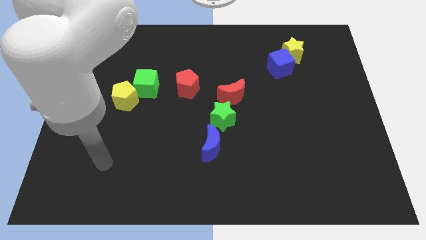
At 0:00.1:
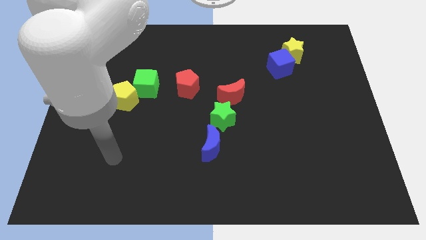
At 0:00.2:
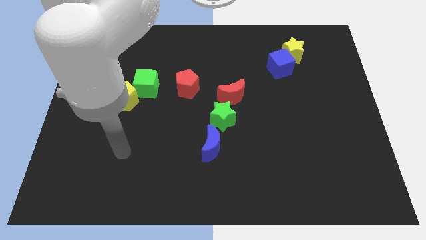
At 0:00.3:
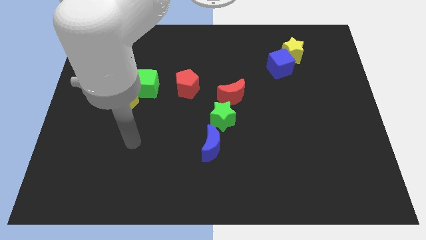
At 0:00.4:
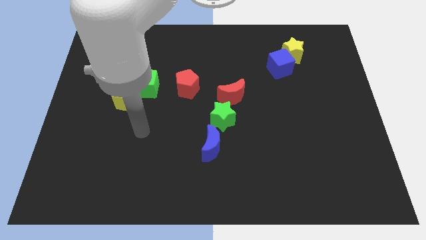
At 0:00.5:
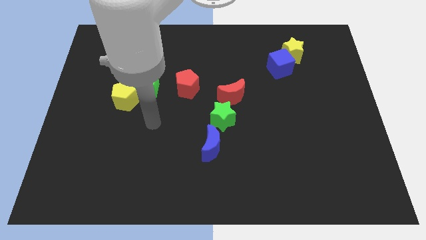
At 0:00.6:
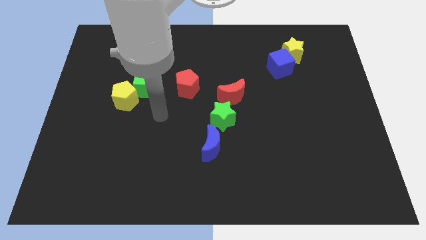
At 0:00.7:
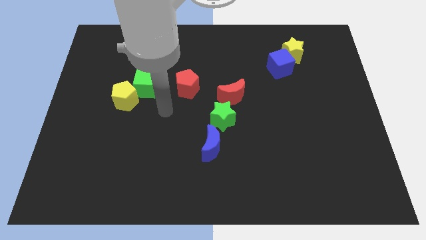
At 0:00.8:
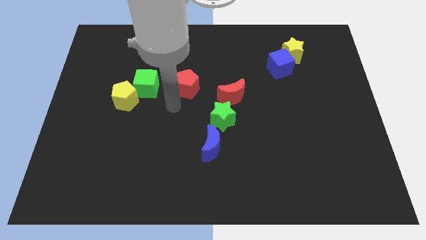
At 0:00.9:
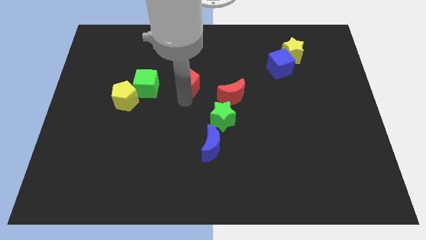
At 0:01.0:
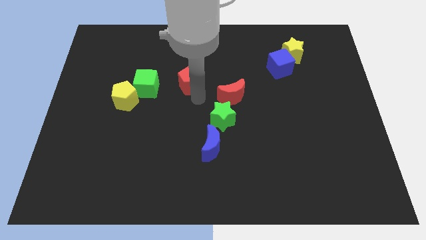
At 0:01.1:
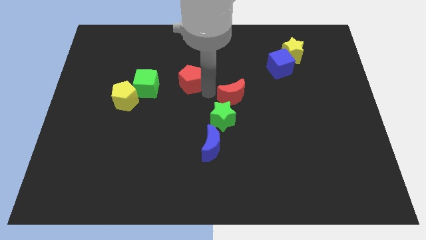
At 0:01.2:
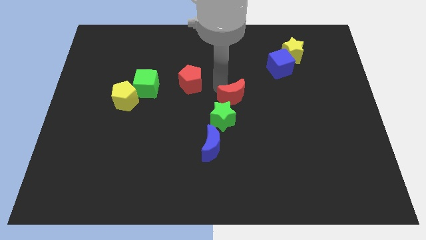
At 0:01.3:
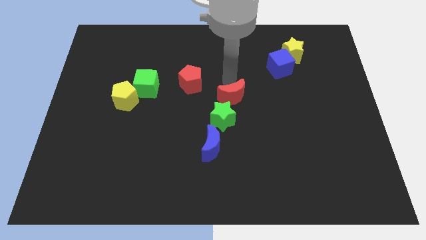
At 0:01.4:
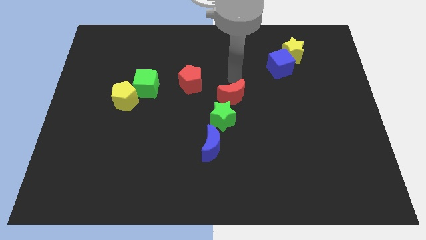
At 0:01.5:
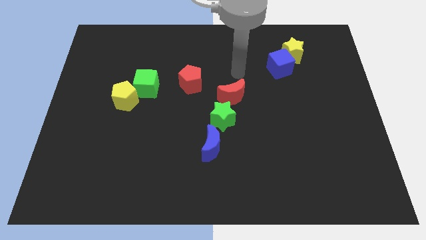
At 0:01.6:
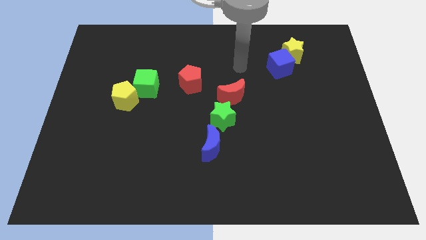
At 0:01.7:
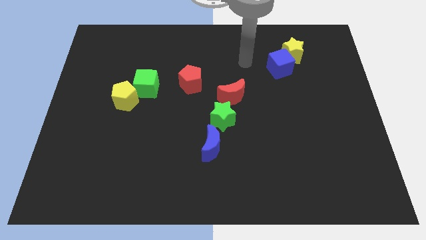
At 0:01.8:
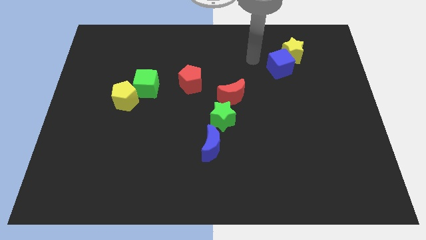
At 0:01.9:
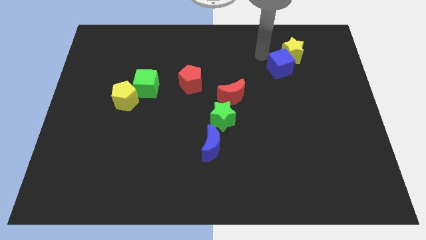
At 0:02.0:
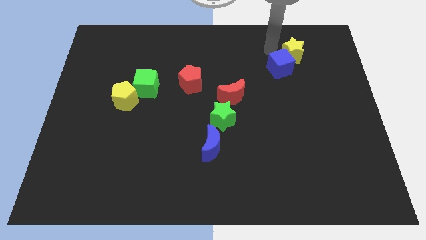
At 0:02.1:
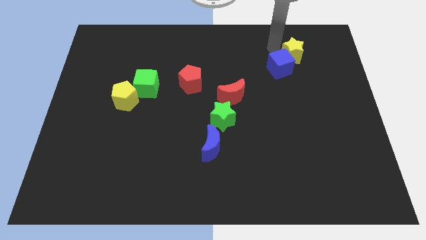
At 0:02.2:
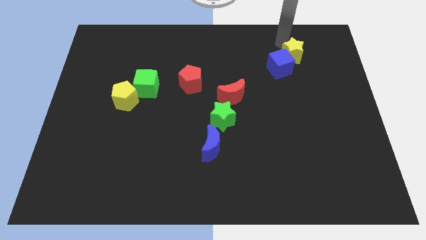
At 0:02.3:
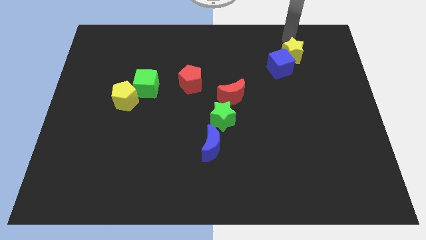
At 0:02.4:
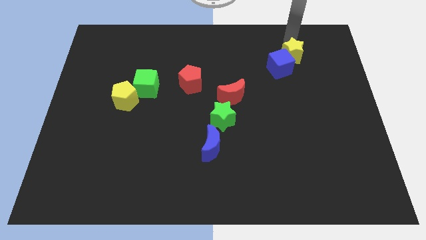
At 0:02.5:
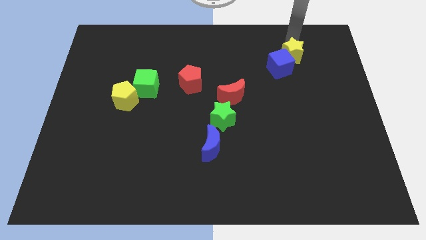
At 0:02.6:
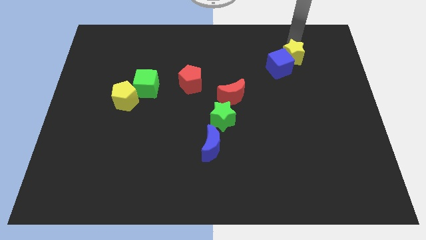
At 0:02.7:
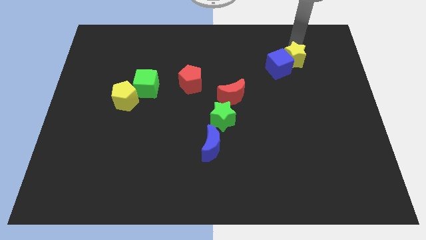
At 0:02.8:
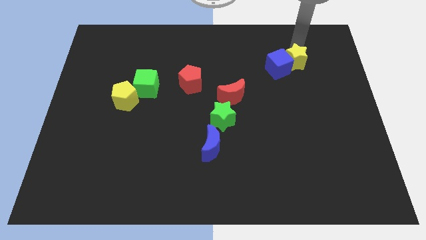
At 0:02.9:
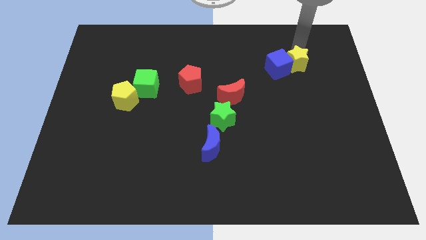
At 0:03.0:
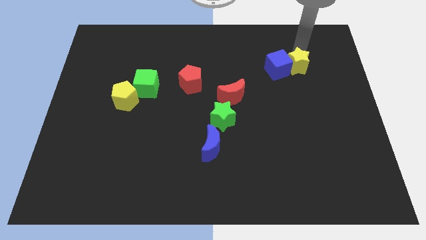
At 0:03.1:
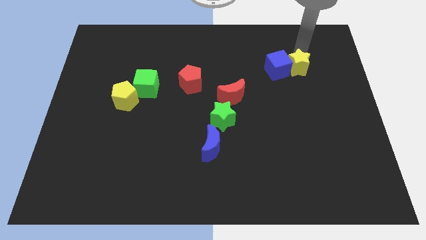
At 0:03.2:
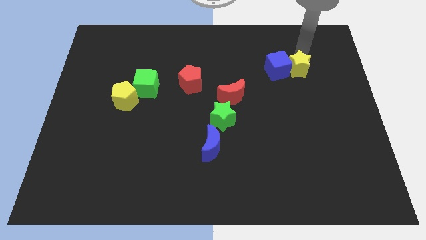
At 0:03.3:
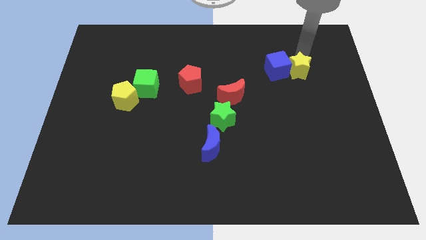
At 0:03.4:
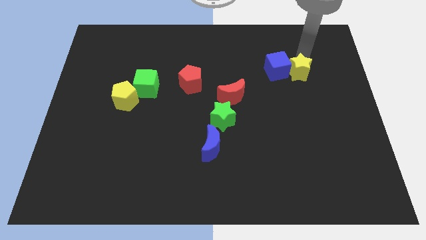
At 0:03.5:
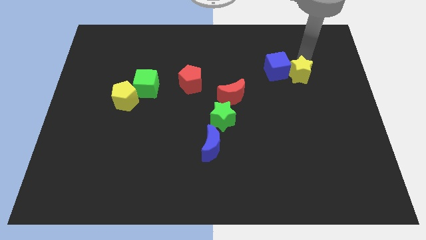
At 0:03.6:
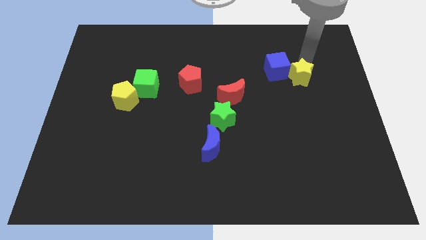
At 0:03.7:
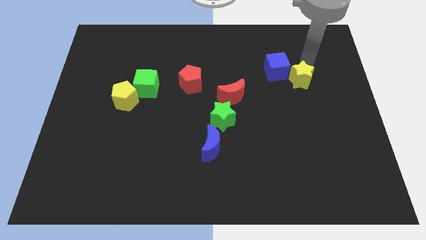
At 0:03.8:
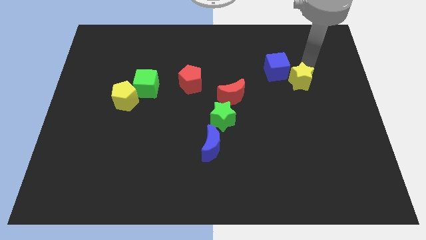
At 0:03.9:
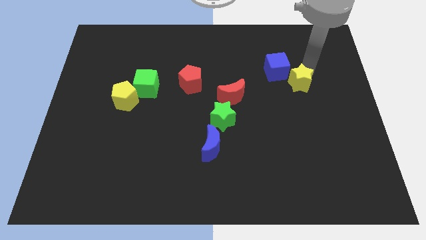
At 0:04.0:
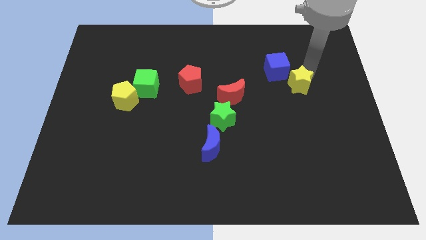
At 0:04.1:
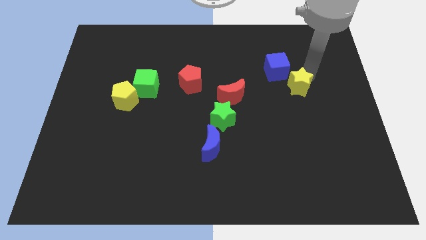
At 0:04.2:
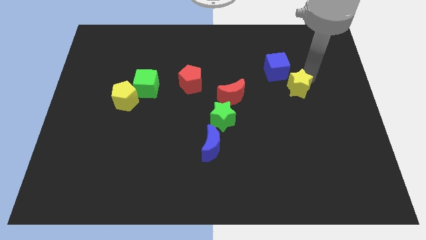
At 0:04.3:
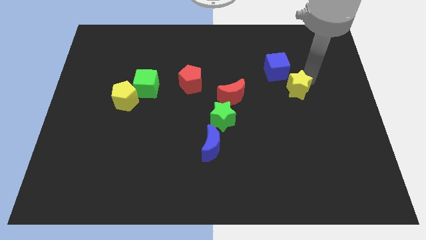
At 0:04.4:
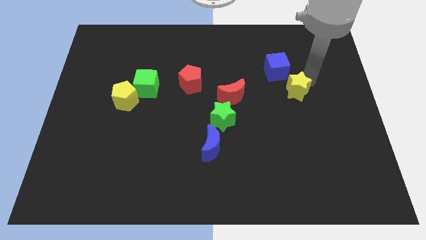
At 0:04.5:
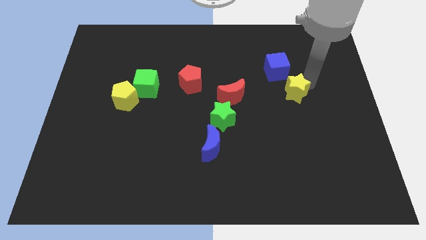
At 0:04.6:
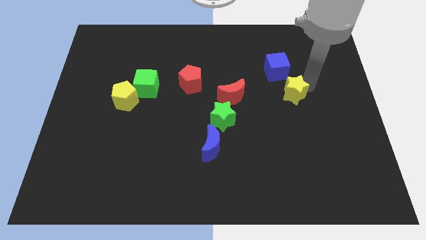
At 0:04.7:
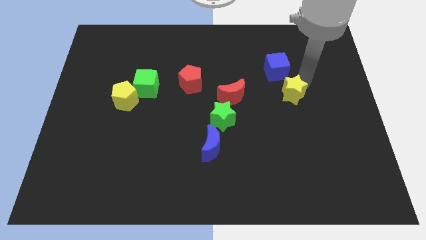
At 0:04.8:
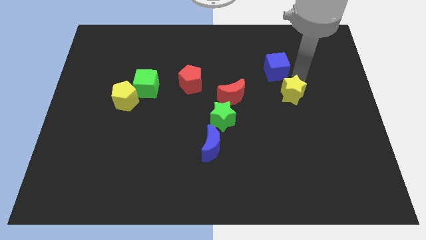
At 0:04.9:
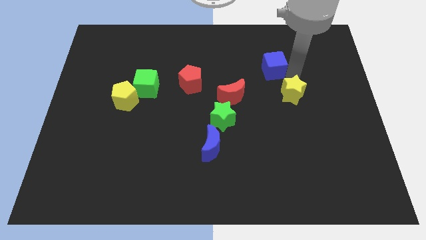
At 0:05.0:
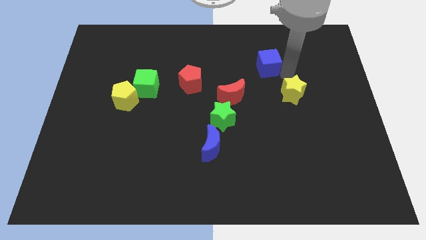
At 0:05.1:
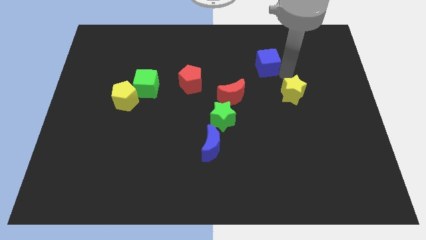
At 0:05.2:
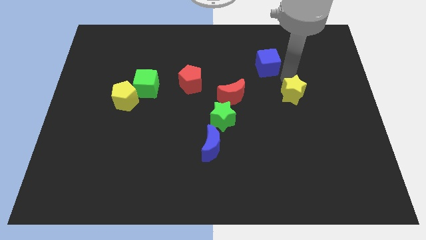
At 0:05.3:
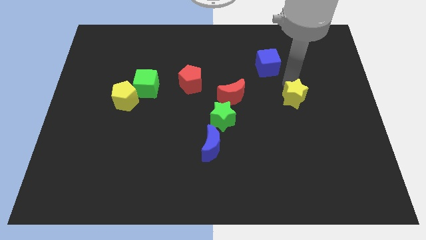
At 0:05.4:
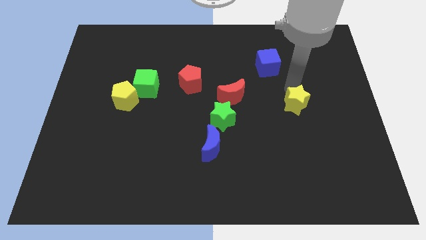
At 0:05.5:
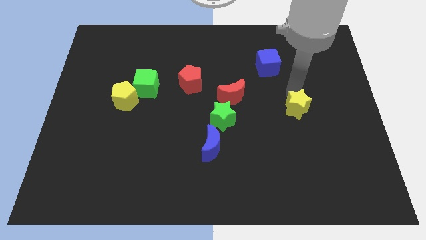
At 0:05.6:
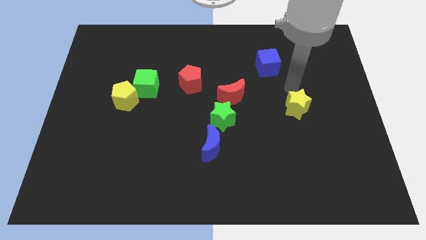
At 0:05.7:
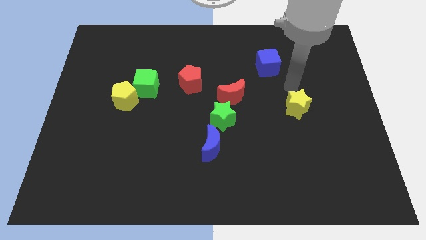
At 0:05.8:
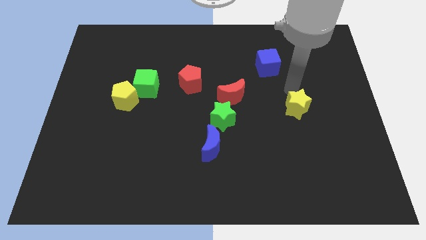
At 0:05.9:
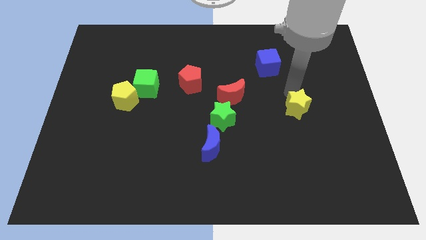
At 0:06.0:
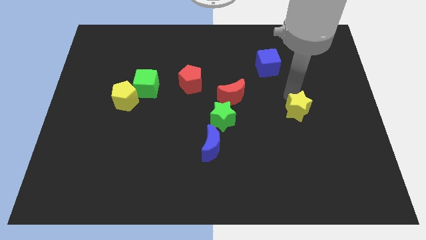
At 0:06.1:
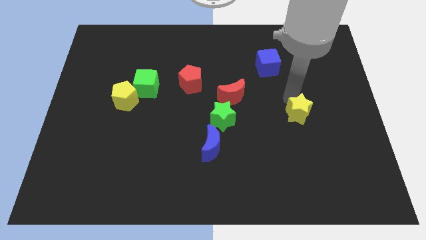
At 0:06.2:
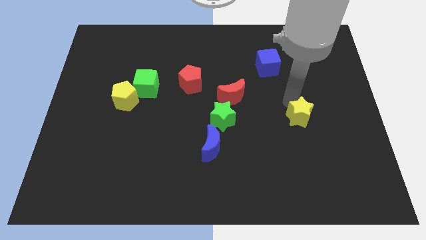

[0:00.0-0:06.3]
move the yellow star down

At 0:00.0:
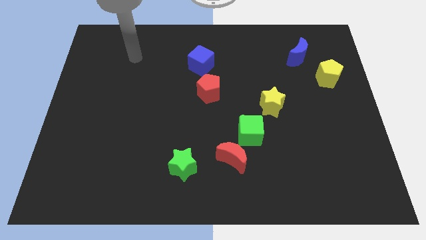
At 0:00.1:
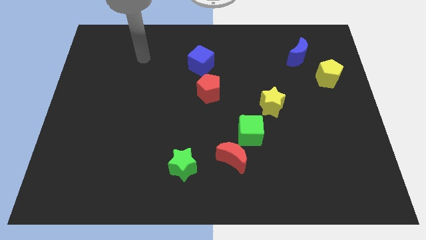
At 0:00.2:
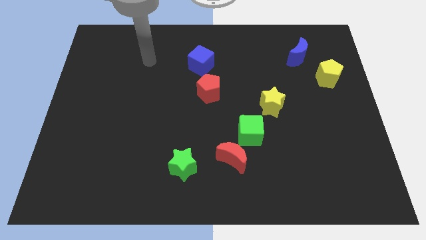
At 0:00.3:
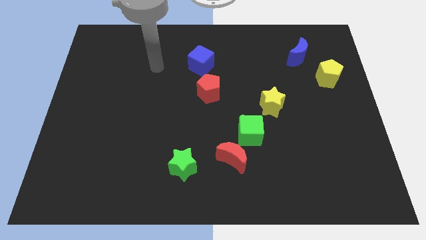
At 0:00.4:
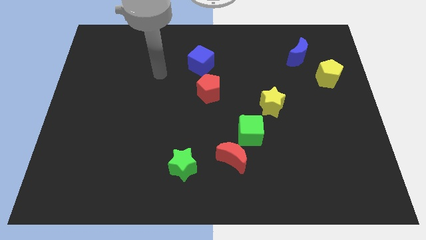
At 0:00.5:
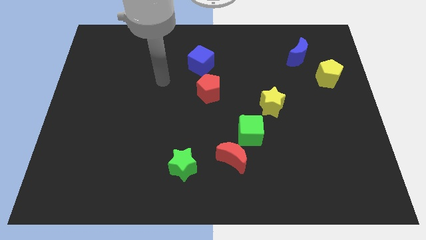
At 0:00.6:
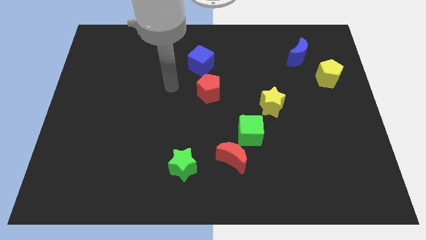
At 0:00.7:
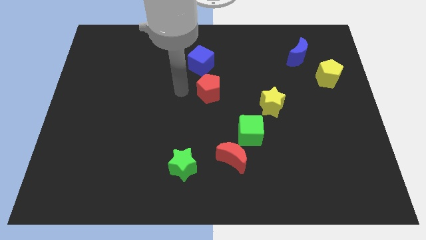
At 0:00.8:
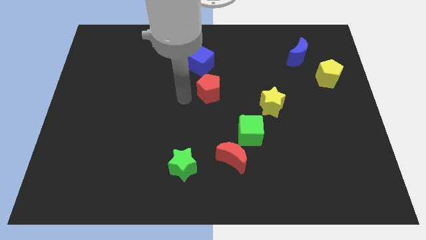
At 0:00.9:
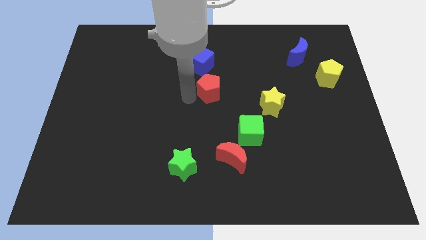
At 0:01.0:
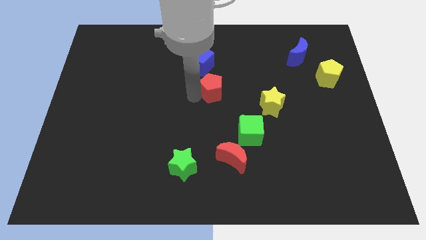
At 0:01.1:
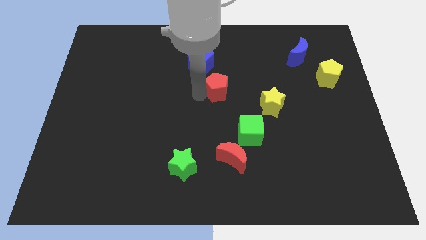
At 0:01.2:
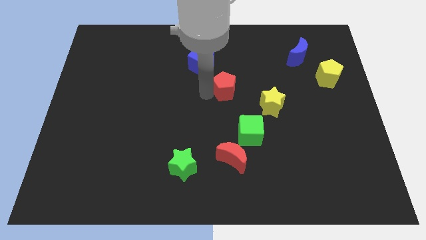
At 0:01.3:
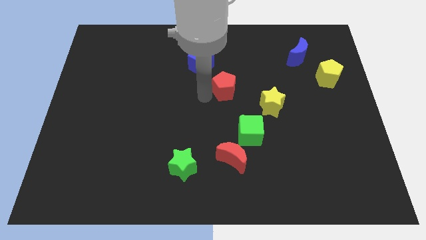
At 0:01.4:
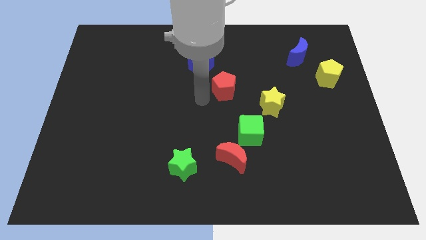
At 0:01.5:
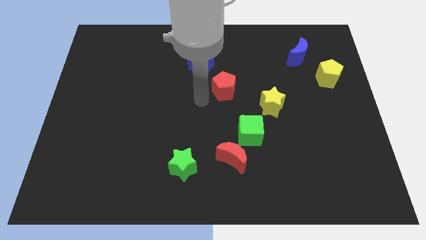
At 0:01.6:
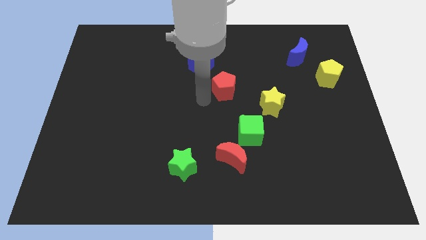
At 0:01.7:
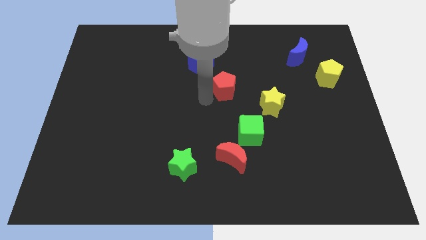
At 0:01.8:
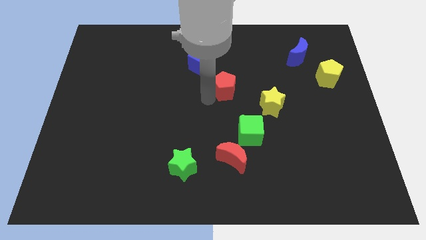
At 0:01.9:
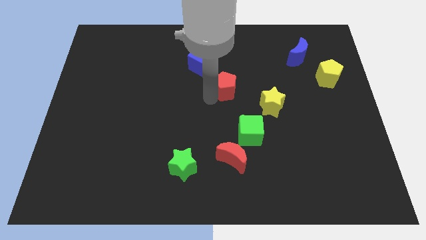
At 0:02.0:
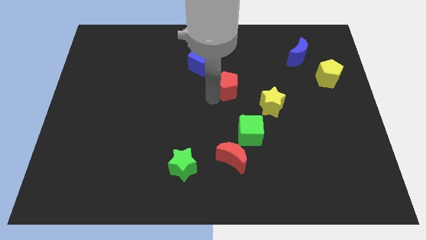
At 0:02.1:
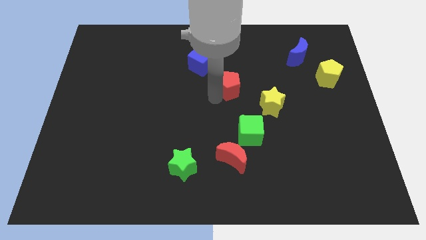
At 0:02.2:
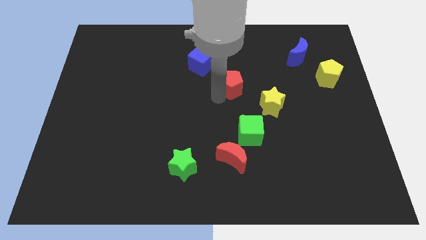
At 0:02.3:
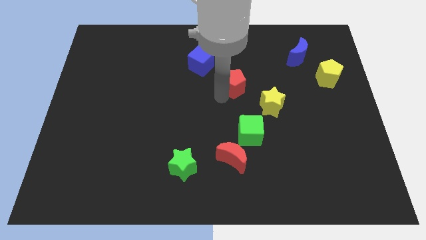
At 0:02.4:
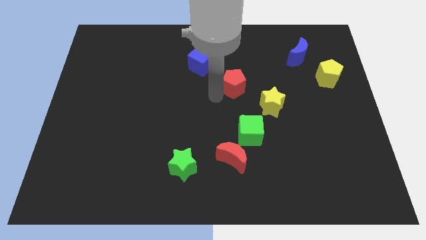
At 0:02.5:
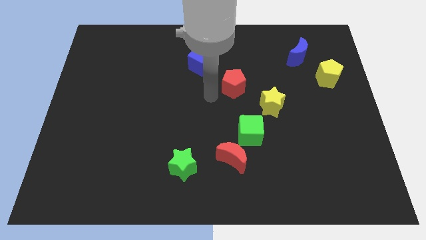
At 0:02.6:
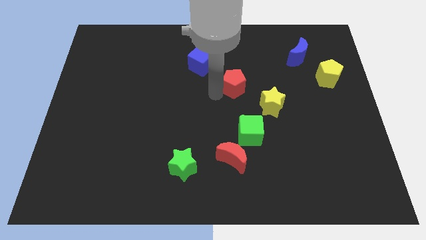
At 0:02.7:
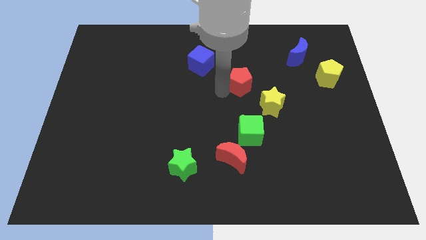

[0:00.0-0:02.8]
slide the red pentagon right a little
